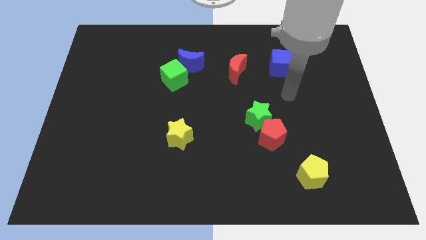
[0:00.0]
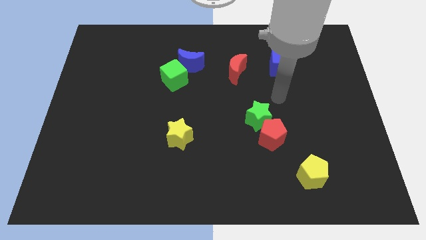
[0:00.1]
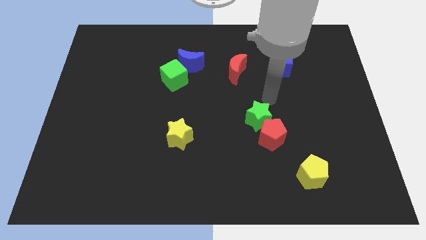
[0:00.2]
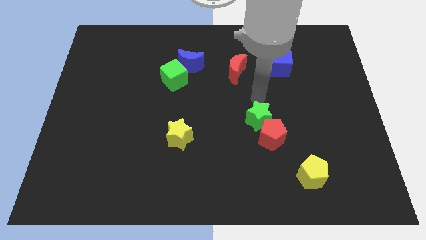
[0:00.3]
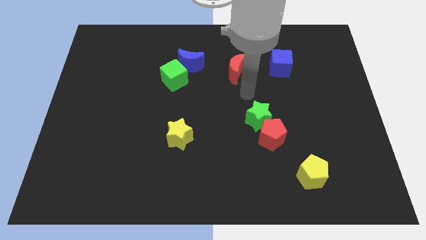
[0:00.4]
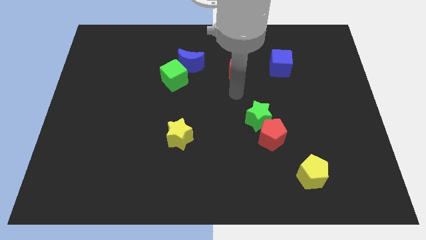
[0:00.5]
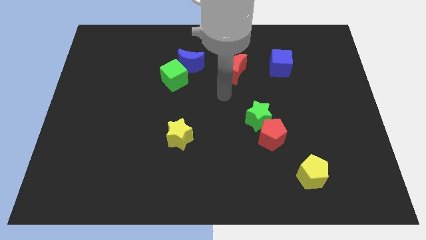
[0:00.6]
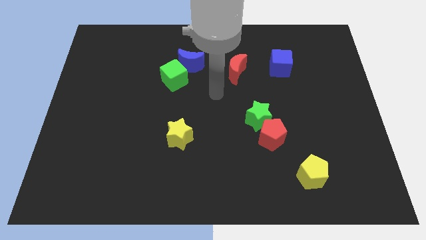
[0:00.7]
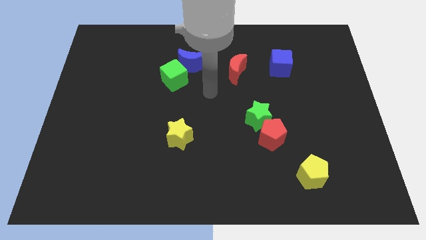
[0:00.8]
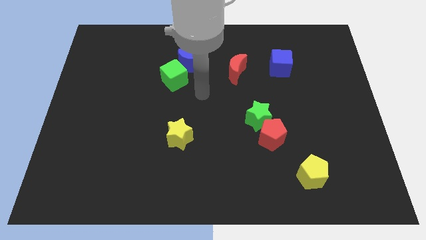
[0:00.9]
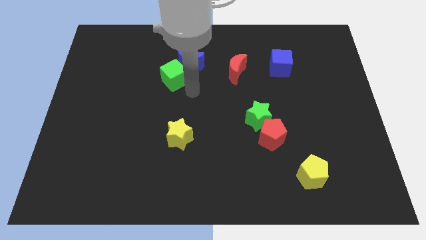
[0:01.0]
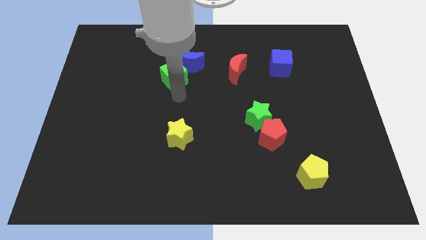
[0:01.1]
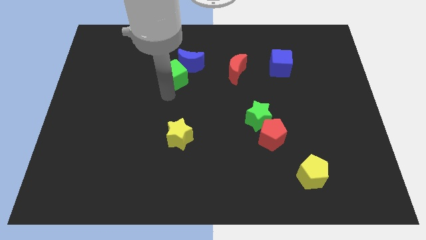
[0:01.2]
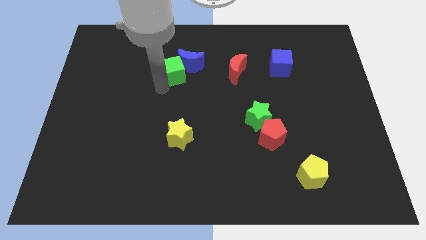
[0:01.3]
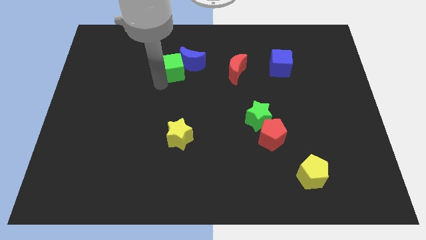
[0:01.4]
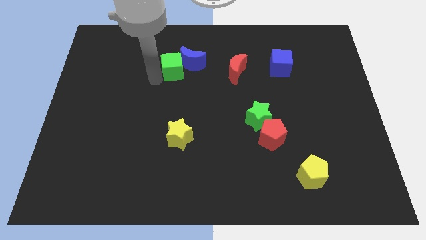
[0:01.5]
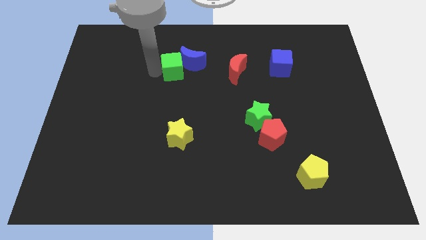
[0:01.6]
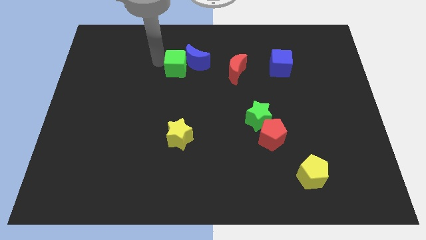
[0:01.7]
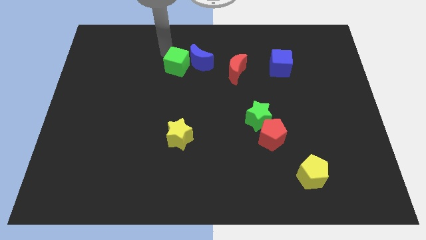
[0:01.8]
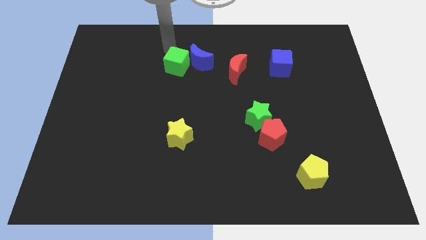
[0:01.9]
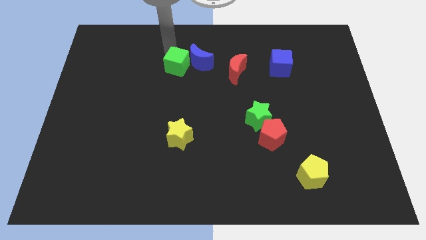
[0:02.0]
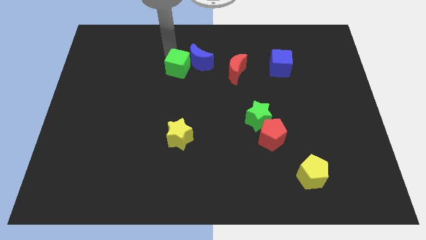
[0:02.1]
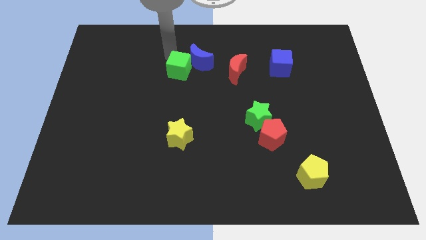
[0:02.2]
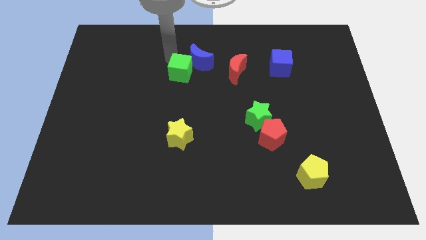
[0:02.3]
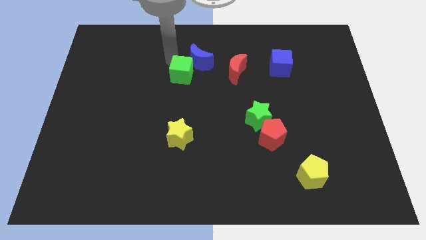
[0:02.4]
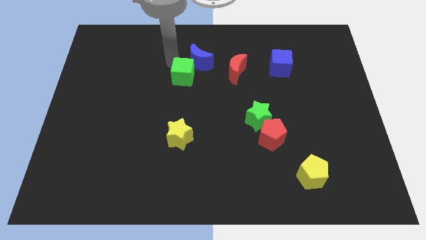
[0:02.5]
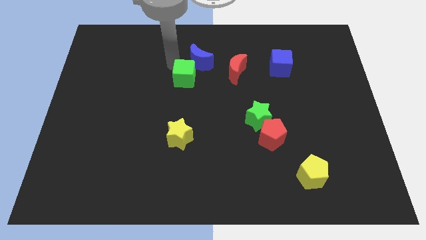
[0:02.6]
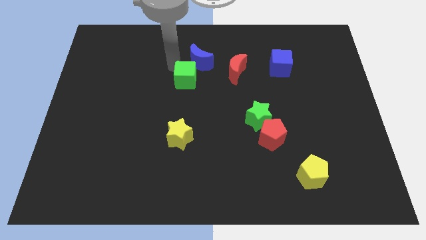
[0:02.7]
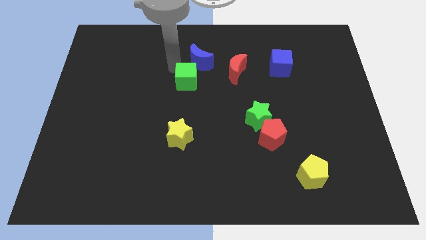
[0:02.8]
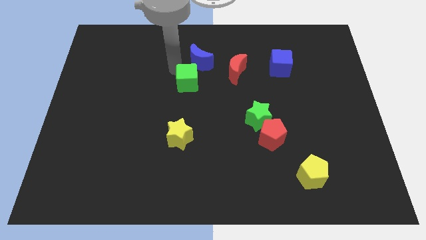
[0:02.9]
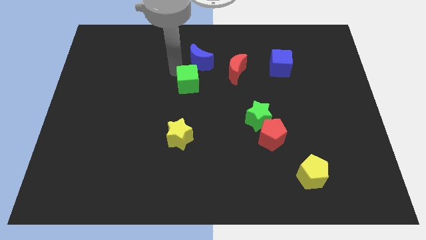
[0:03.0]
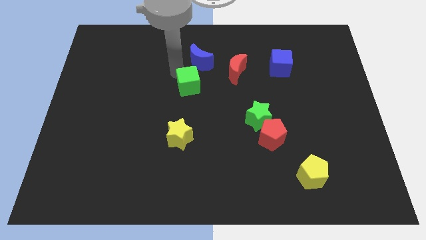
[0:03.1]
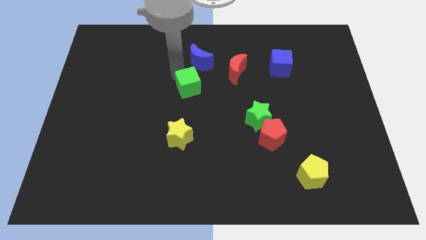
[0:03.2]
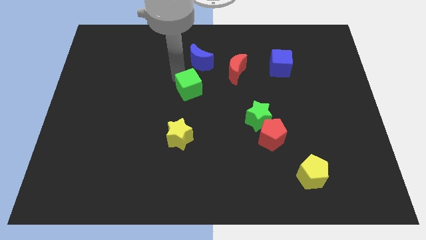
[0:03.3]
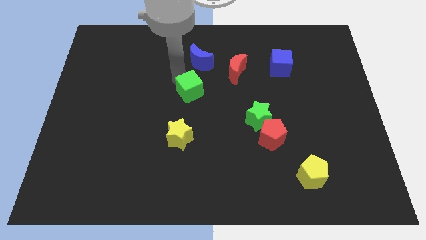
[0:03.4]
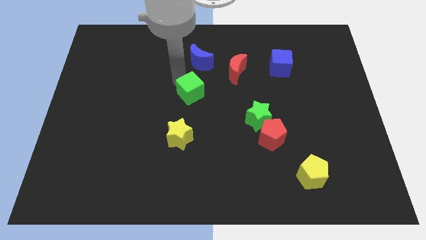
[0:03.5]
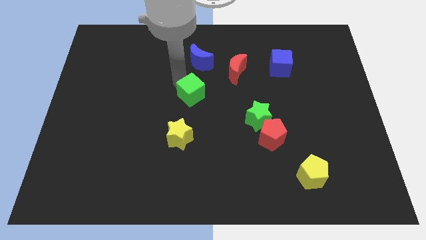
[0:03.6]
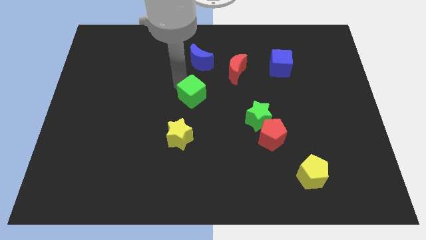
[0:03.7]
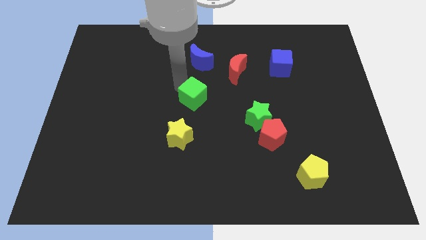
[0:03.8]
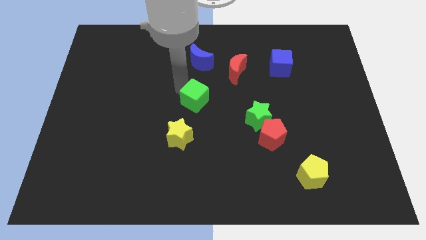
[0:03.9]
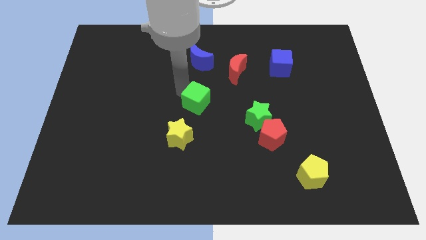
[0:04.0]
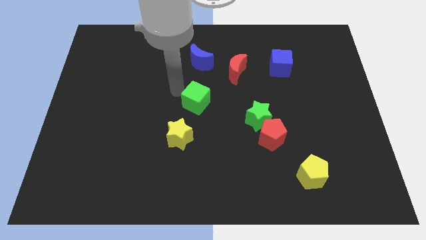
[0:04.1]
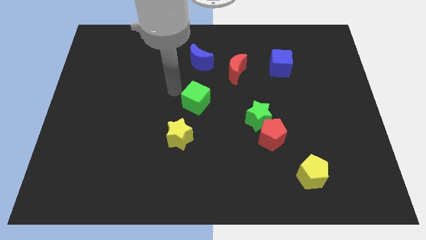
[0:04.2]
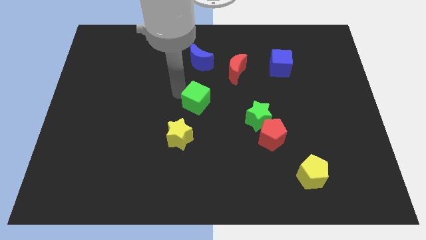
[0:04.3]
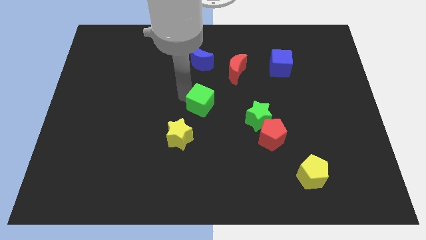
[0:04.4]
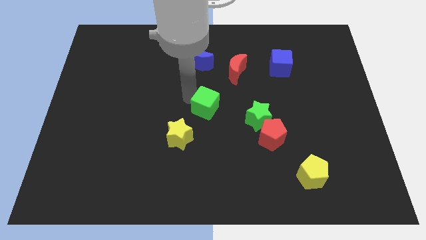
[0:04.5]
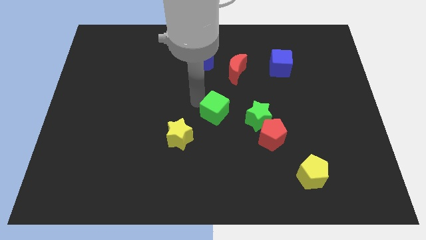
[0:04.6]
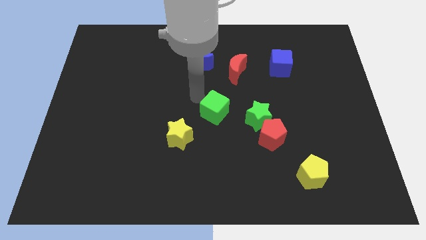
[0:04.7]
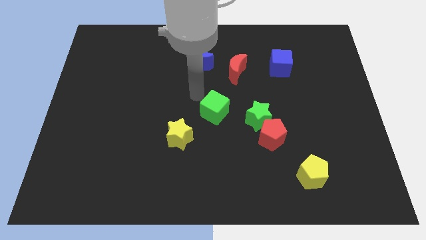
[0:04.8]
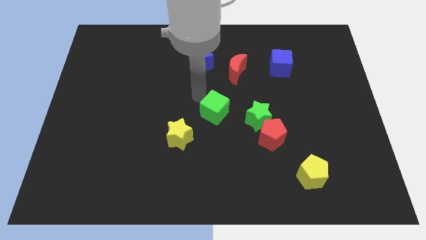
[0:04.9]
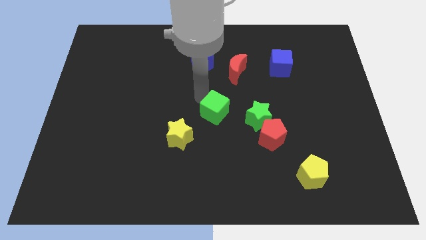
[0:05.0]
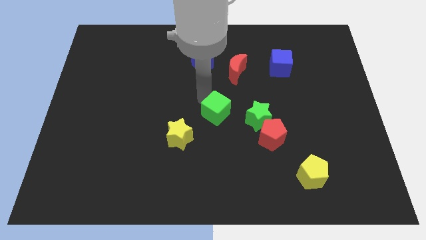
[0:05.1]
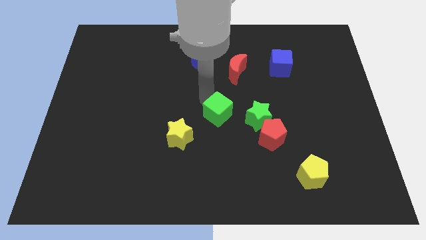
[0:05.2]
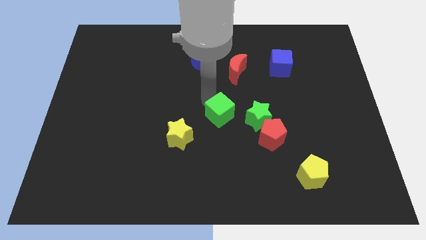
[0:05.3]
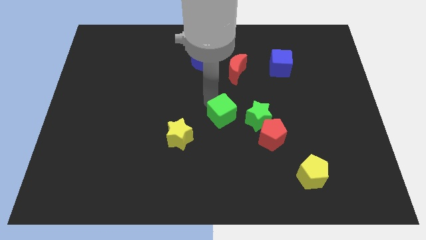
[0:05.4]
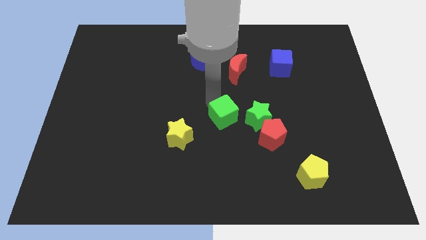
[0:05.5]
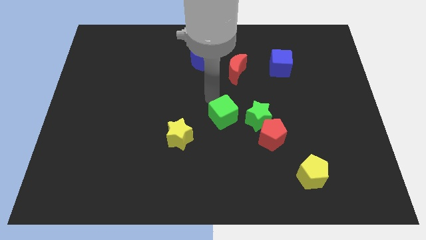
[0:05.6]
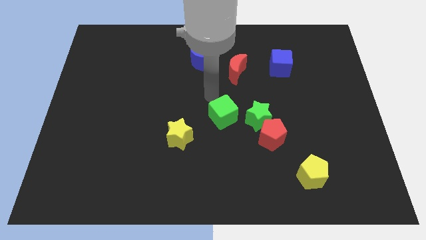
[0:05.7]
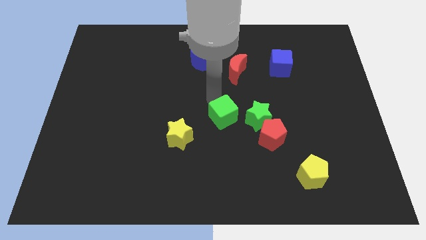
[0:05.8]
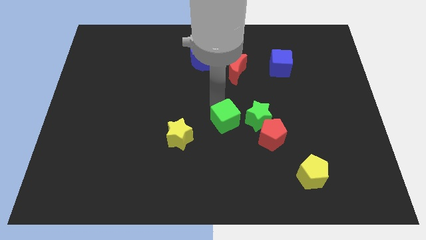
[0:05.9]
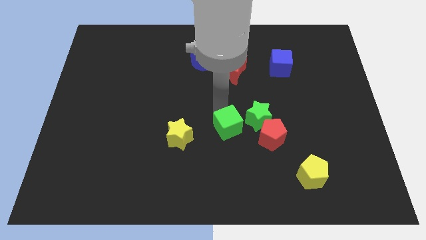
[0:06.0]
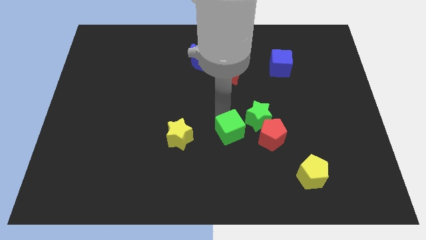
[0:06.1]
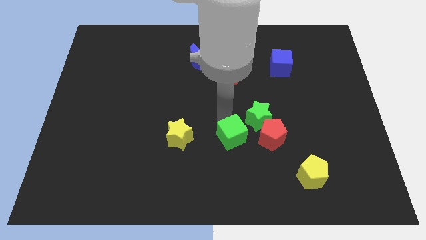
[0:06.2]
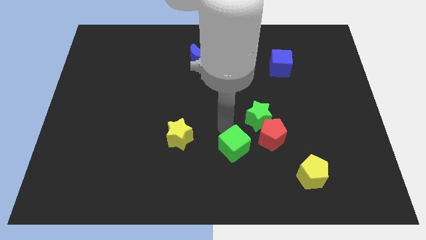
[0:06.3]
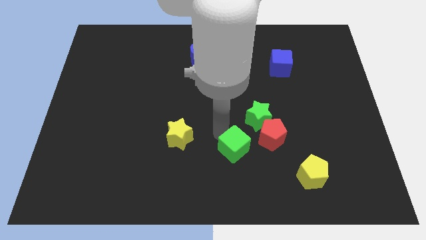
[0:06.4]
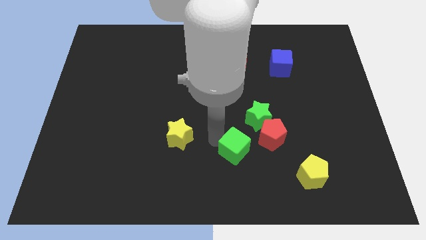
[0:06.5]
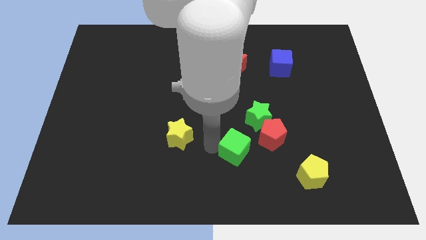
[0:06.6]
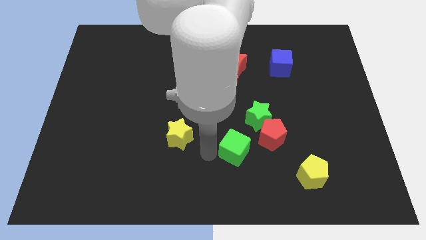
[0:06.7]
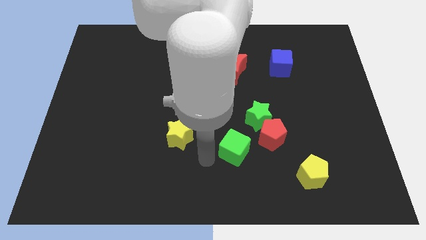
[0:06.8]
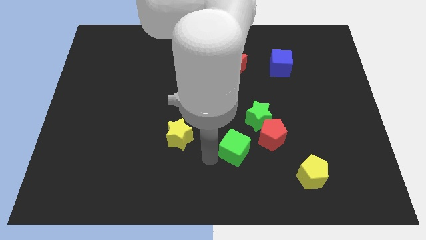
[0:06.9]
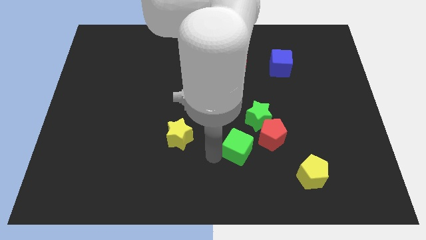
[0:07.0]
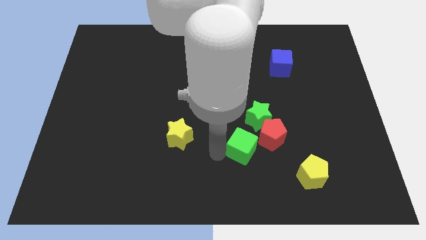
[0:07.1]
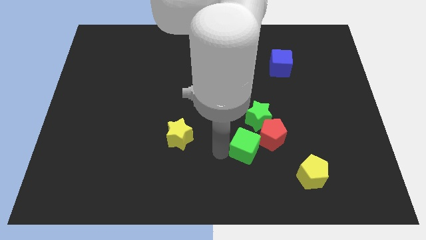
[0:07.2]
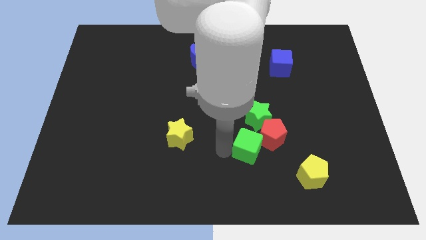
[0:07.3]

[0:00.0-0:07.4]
slide the green cube next to the red pentagon

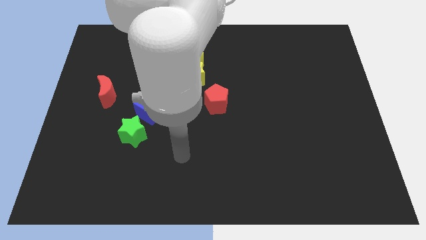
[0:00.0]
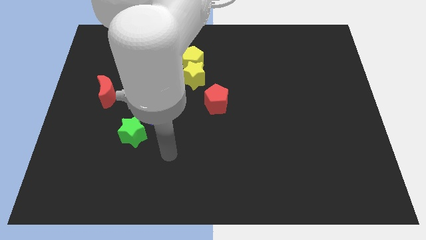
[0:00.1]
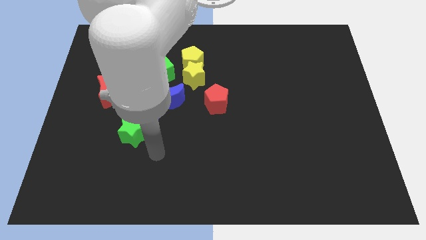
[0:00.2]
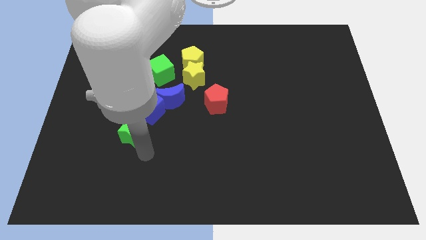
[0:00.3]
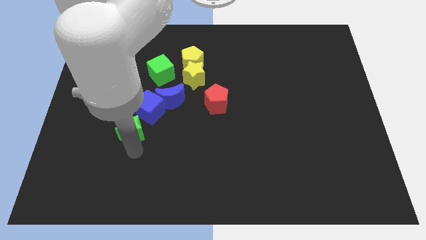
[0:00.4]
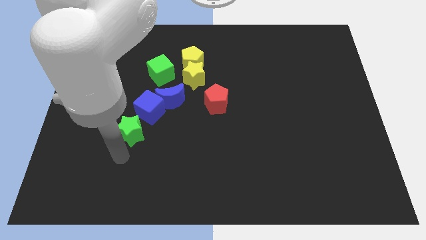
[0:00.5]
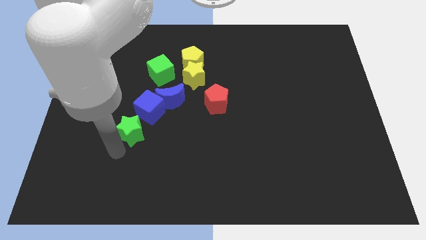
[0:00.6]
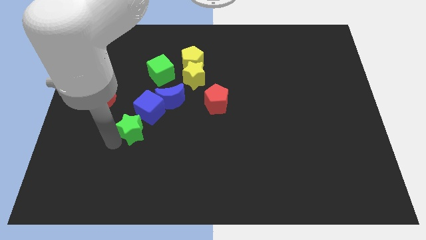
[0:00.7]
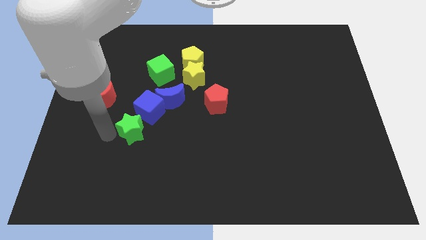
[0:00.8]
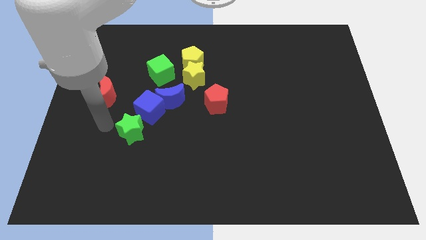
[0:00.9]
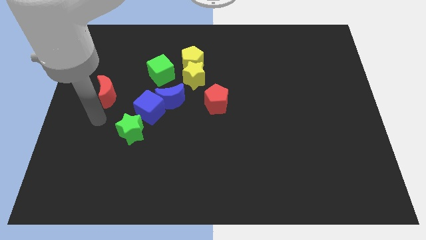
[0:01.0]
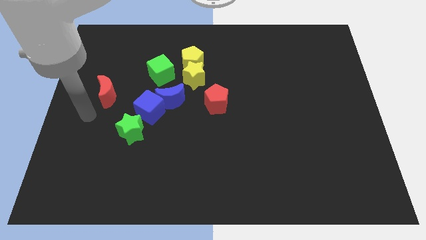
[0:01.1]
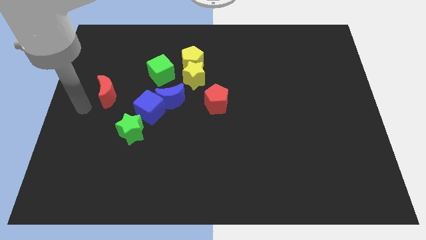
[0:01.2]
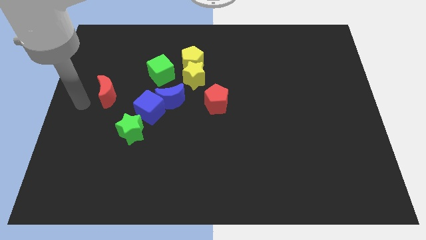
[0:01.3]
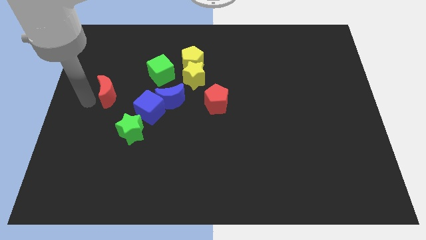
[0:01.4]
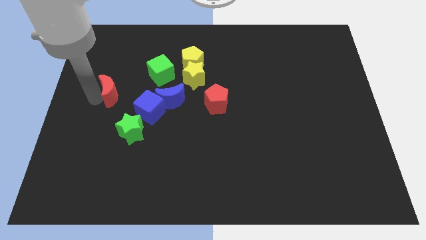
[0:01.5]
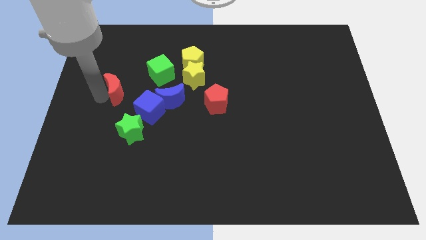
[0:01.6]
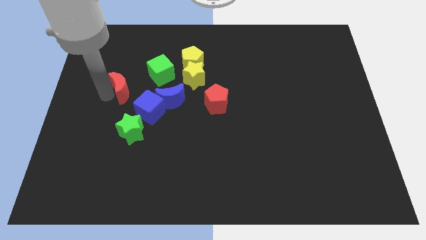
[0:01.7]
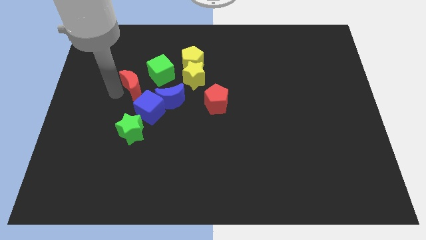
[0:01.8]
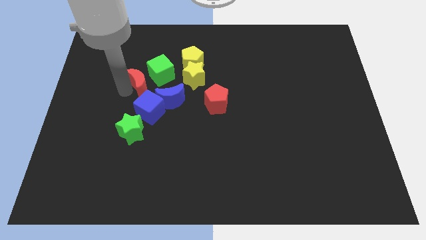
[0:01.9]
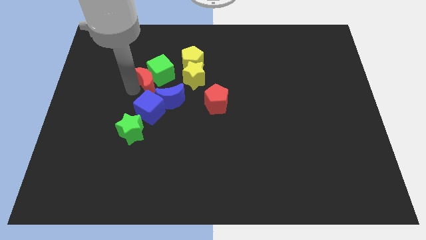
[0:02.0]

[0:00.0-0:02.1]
slide the red moon next to the green cube
